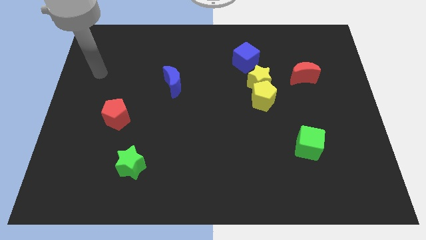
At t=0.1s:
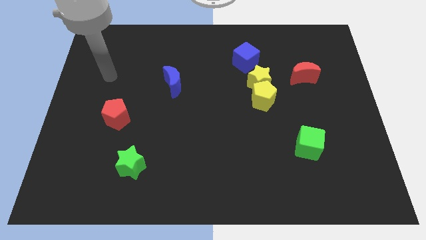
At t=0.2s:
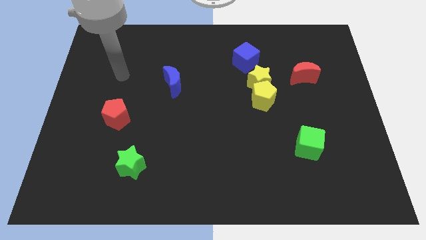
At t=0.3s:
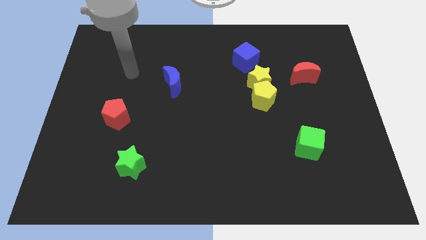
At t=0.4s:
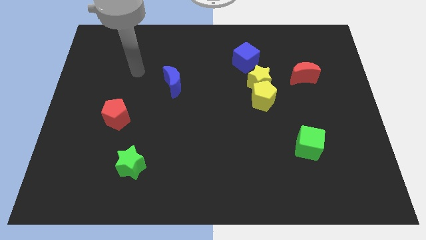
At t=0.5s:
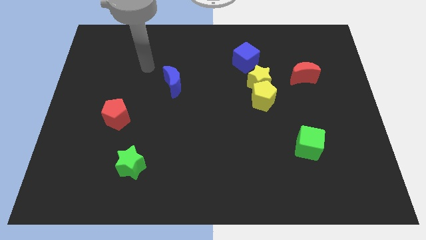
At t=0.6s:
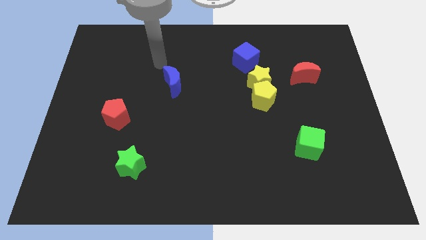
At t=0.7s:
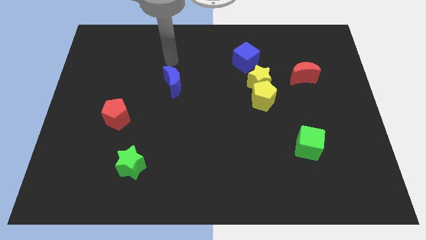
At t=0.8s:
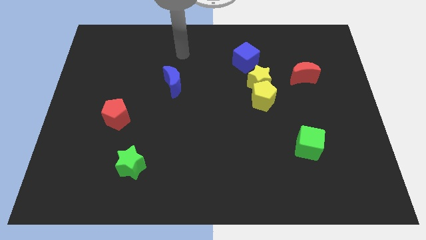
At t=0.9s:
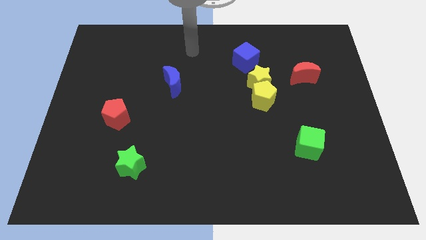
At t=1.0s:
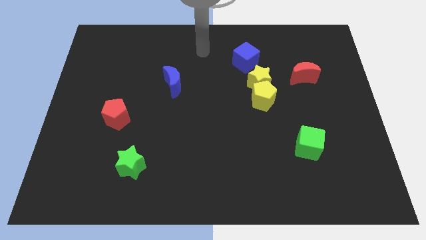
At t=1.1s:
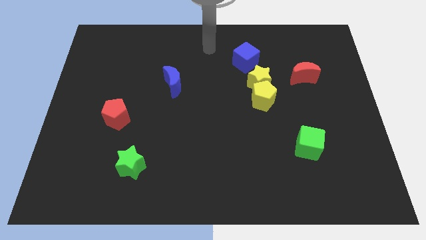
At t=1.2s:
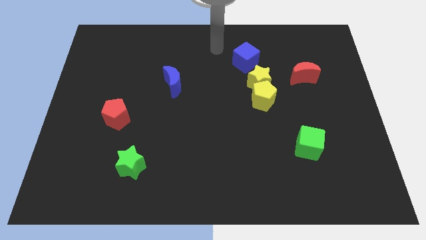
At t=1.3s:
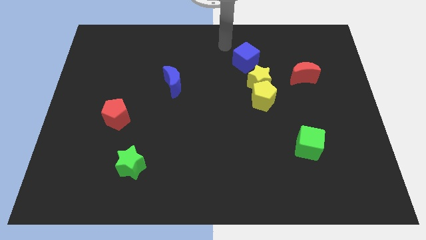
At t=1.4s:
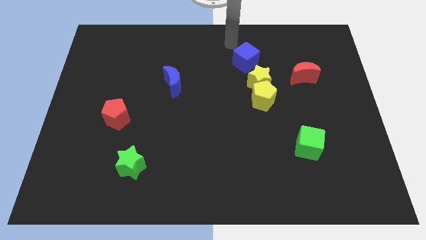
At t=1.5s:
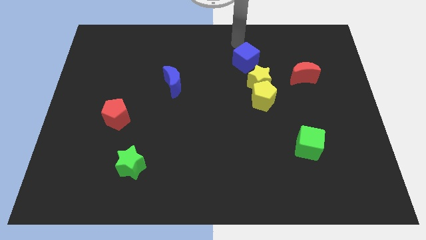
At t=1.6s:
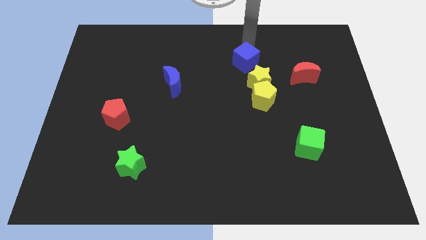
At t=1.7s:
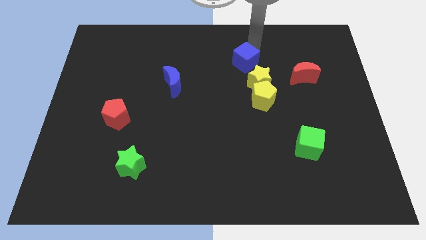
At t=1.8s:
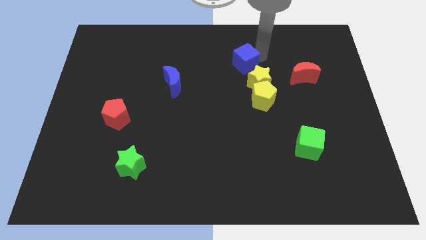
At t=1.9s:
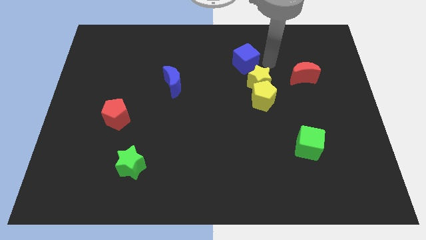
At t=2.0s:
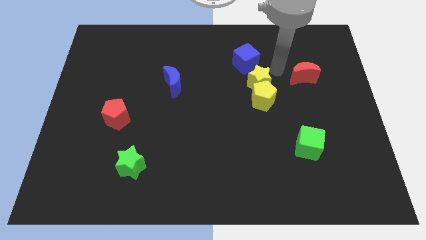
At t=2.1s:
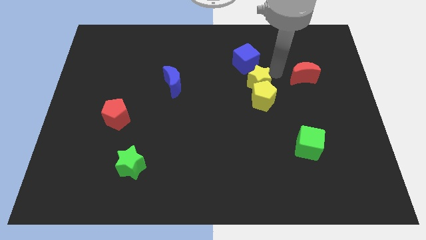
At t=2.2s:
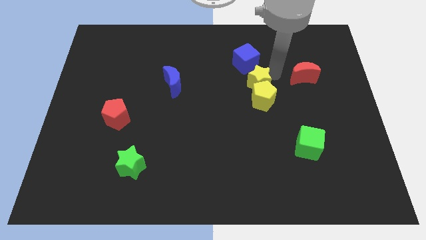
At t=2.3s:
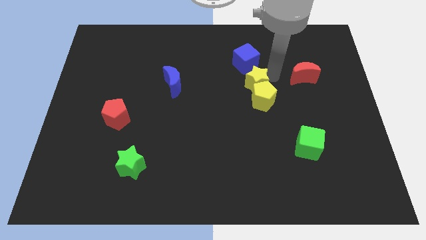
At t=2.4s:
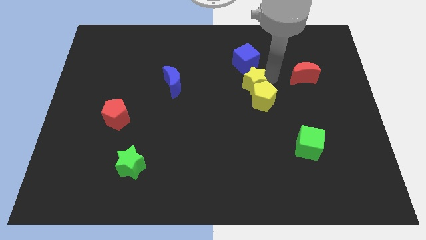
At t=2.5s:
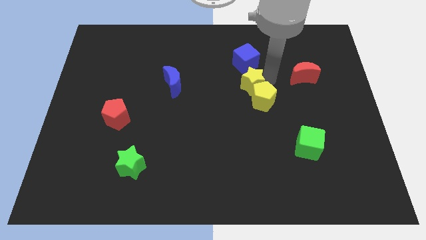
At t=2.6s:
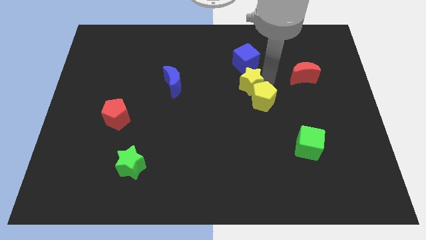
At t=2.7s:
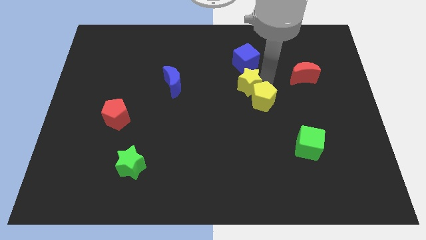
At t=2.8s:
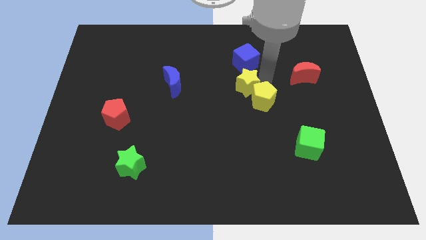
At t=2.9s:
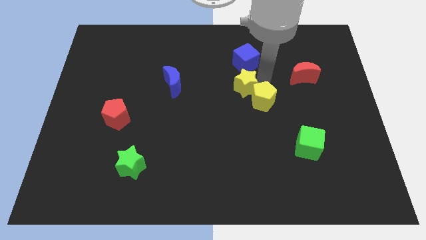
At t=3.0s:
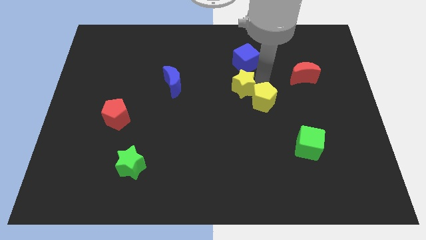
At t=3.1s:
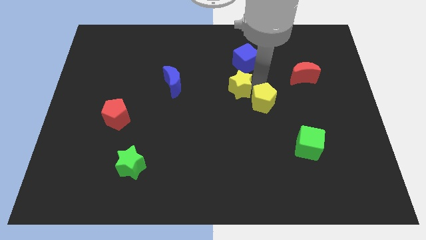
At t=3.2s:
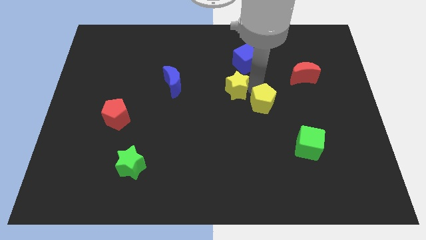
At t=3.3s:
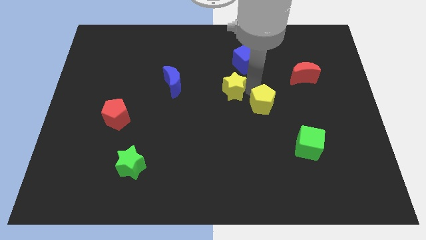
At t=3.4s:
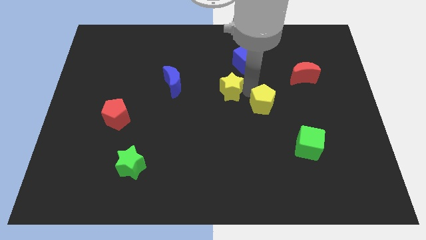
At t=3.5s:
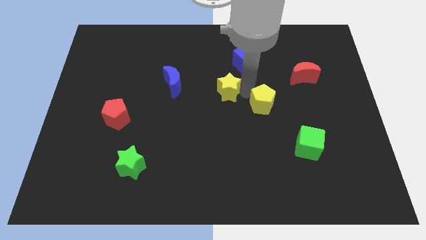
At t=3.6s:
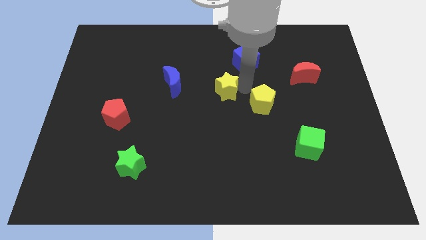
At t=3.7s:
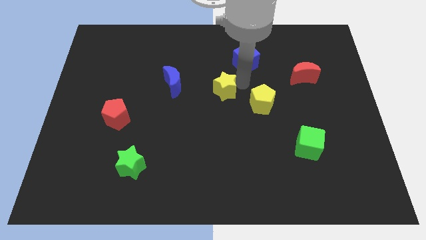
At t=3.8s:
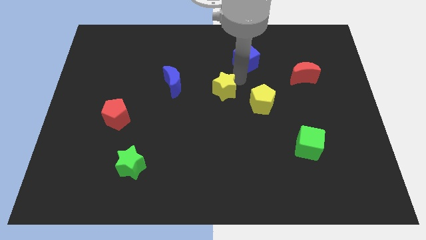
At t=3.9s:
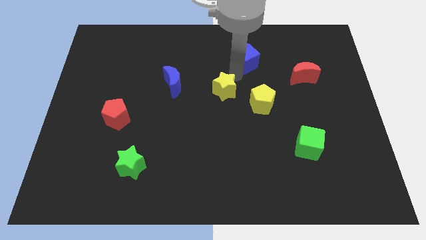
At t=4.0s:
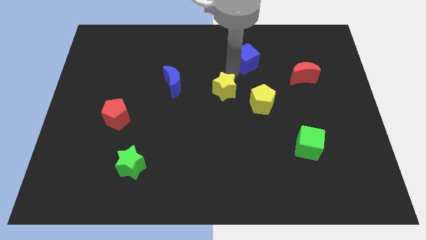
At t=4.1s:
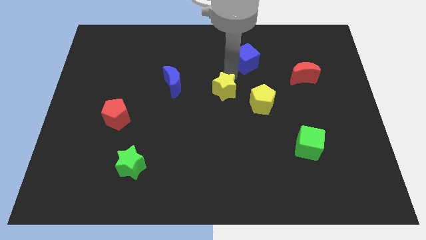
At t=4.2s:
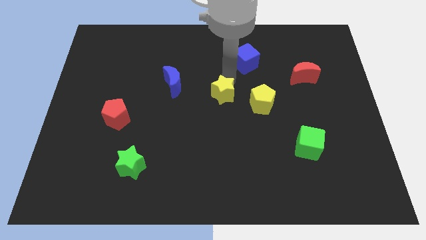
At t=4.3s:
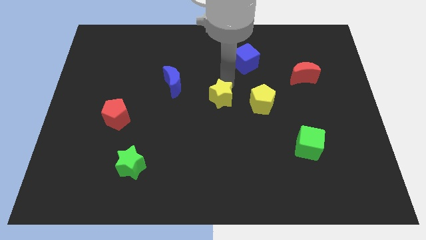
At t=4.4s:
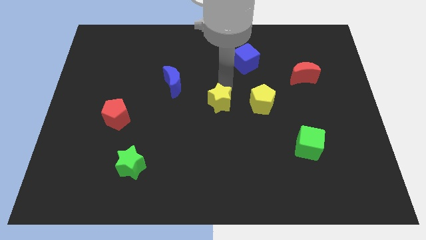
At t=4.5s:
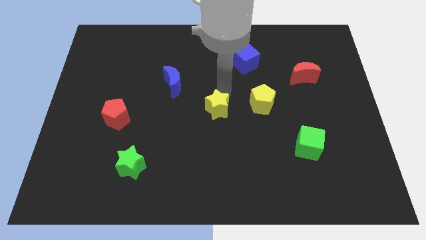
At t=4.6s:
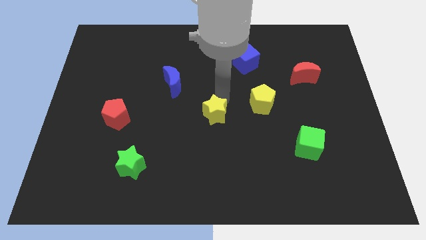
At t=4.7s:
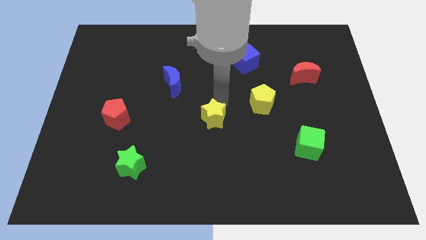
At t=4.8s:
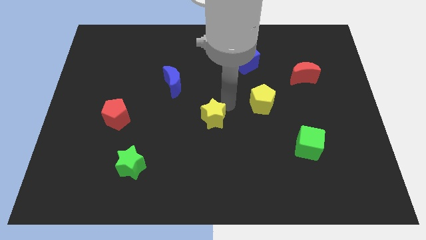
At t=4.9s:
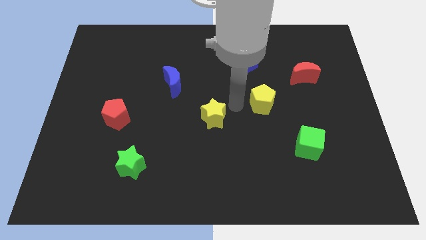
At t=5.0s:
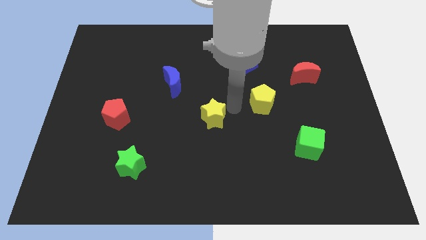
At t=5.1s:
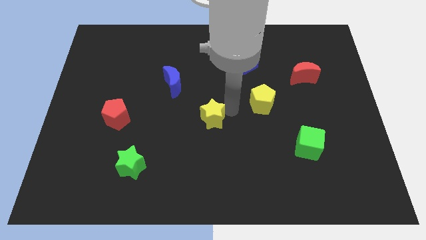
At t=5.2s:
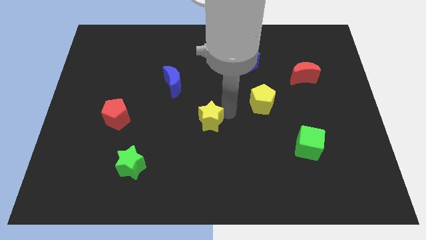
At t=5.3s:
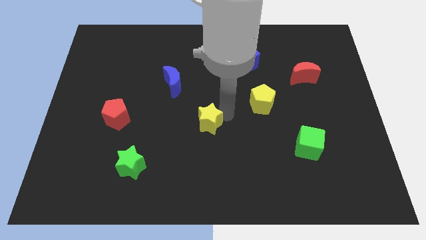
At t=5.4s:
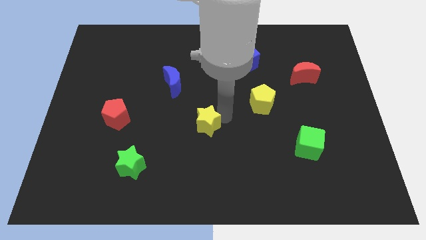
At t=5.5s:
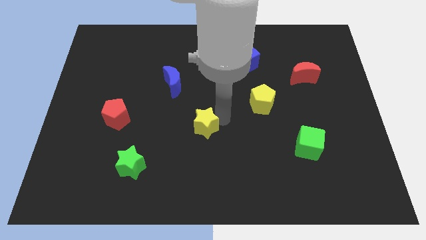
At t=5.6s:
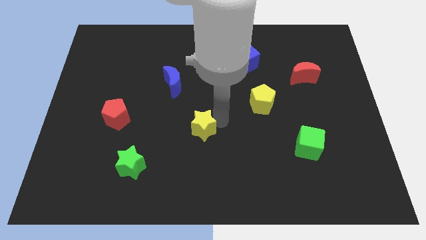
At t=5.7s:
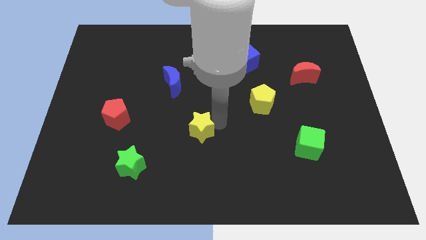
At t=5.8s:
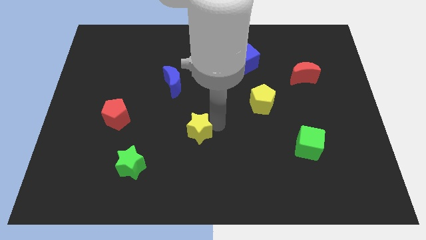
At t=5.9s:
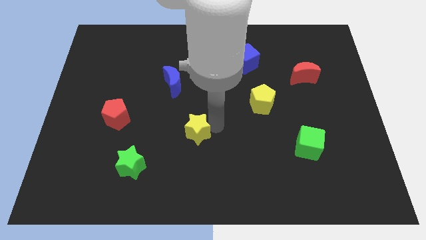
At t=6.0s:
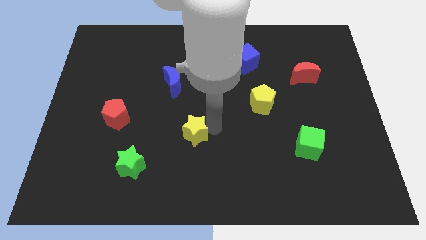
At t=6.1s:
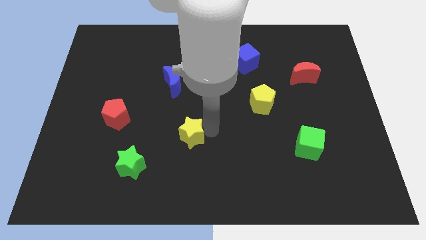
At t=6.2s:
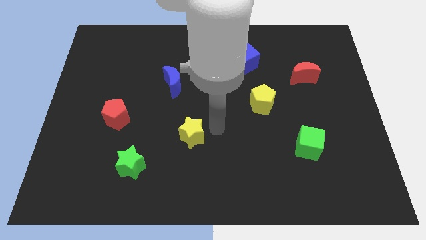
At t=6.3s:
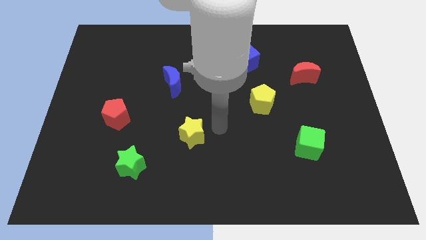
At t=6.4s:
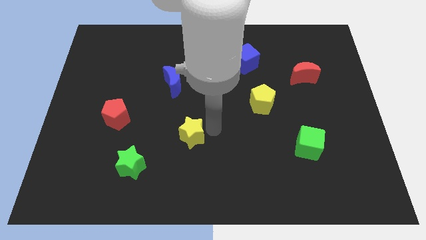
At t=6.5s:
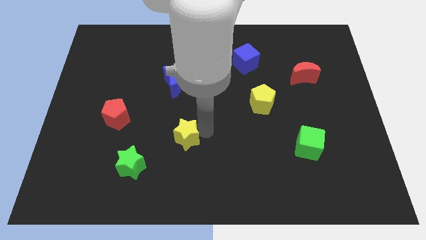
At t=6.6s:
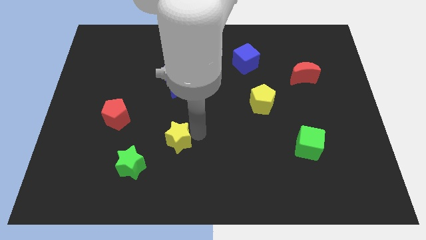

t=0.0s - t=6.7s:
move the yellow star diagonally up and to the right of the green star

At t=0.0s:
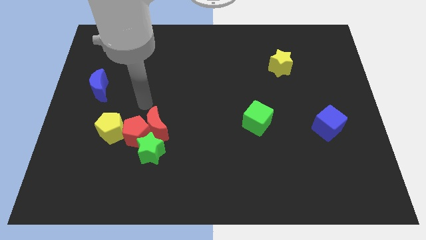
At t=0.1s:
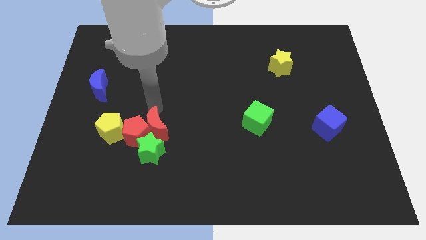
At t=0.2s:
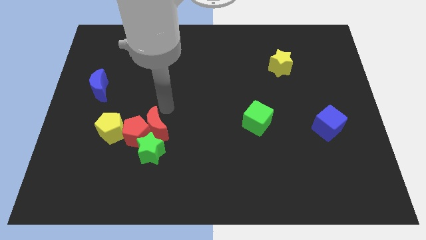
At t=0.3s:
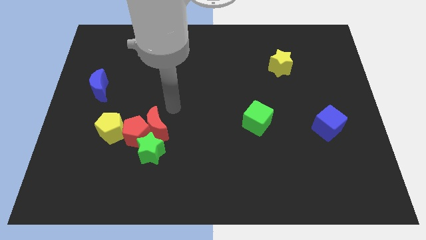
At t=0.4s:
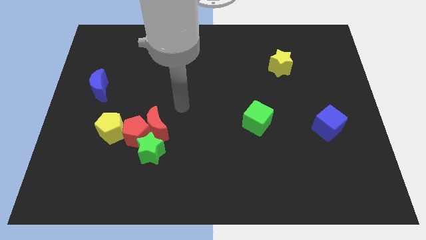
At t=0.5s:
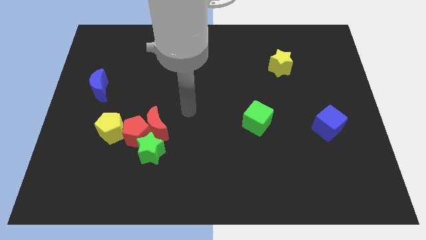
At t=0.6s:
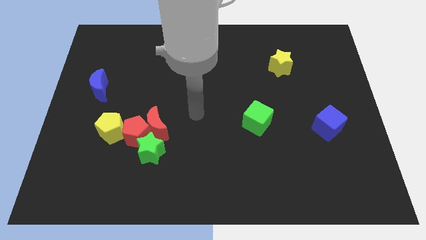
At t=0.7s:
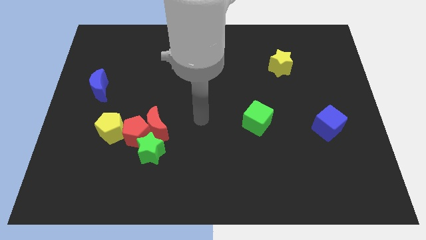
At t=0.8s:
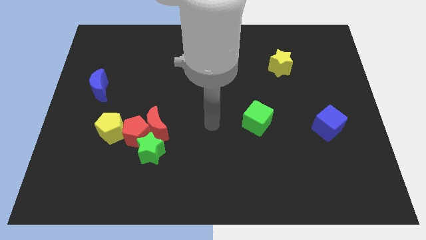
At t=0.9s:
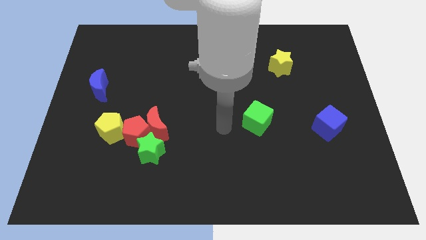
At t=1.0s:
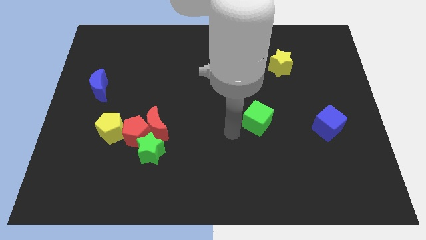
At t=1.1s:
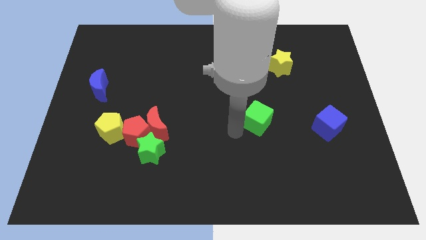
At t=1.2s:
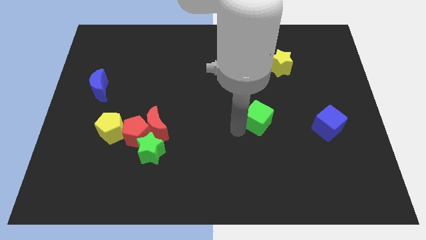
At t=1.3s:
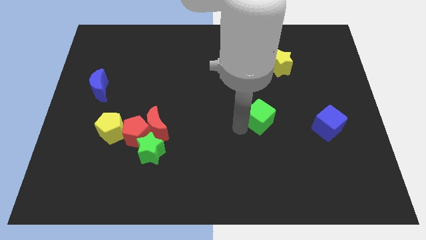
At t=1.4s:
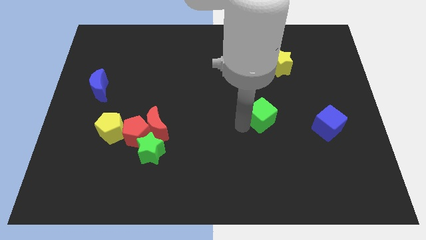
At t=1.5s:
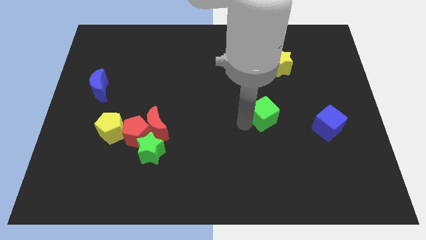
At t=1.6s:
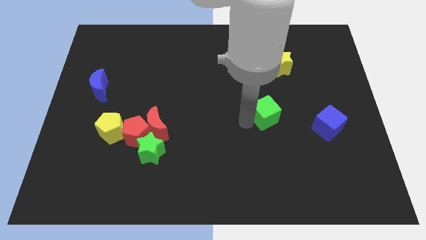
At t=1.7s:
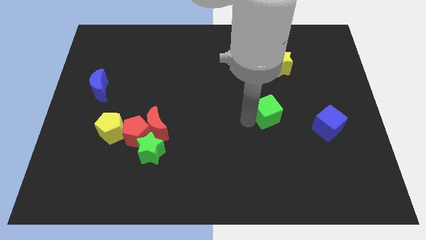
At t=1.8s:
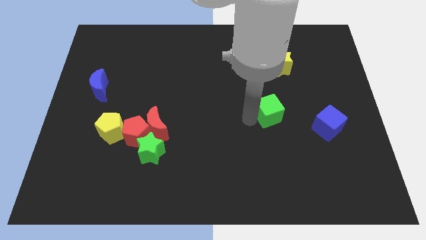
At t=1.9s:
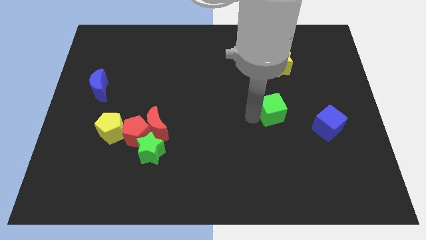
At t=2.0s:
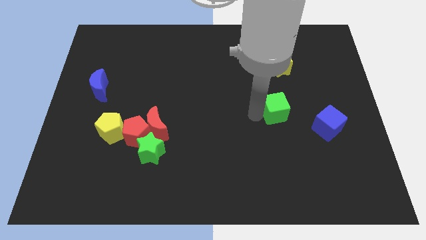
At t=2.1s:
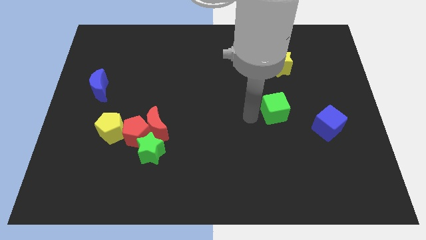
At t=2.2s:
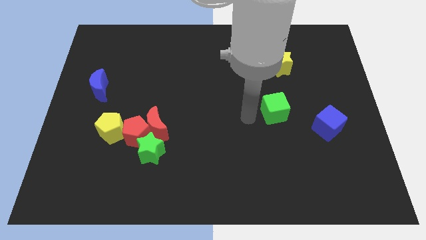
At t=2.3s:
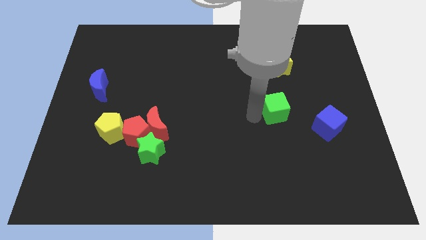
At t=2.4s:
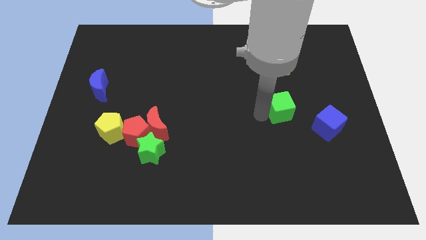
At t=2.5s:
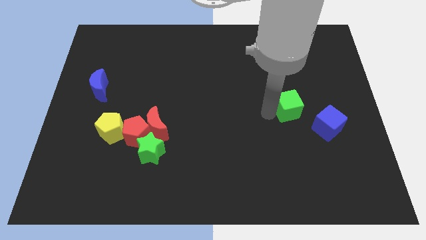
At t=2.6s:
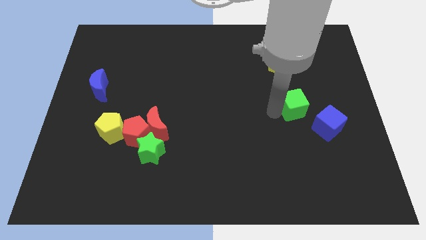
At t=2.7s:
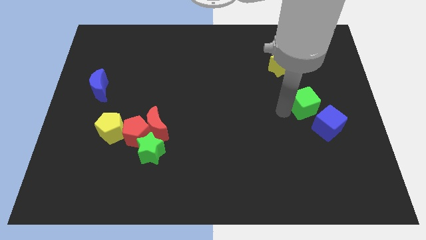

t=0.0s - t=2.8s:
put the green cube above the blue cube
